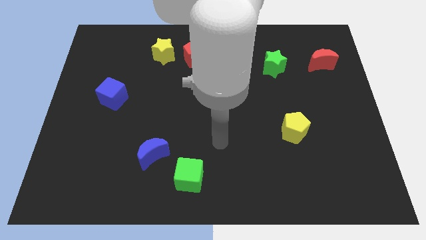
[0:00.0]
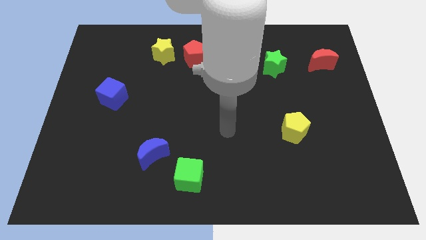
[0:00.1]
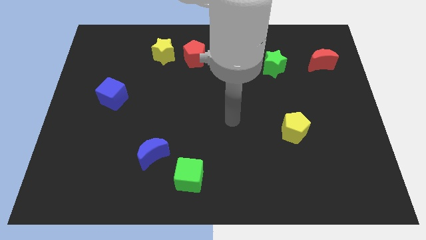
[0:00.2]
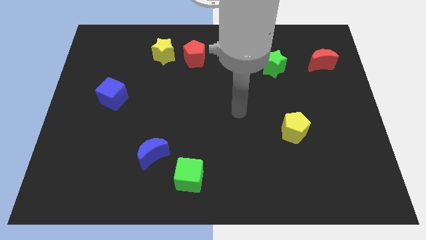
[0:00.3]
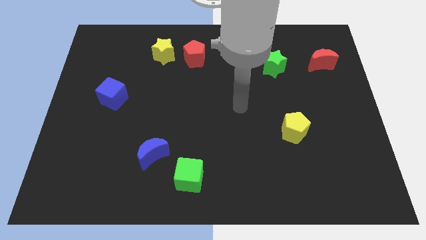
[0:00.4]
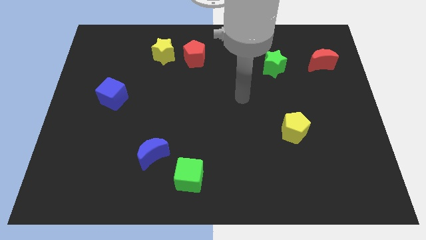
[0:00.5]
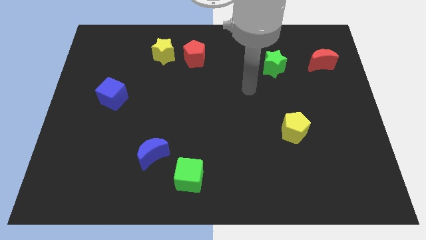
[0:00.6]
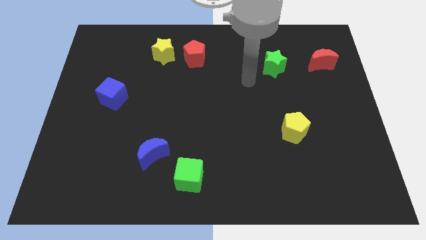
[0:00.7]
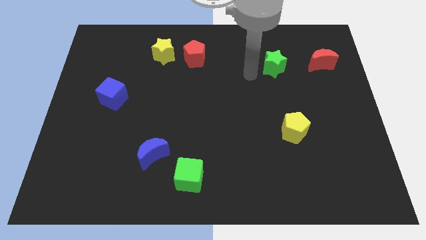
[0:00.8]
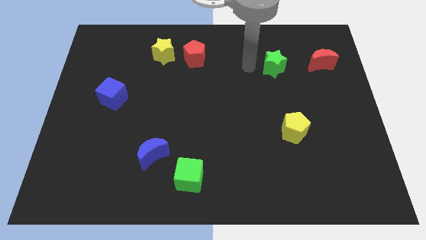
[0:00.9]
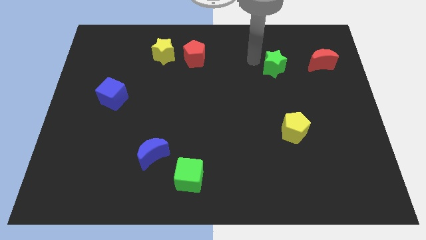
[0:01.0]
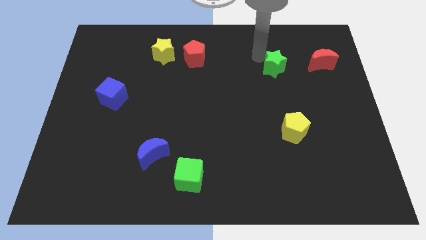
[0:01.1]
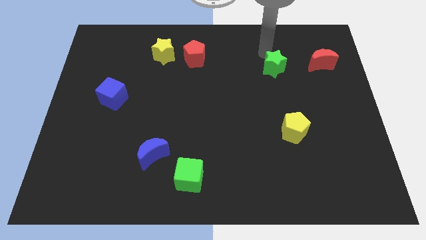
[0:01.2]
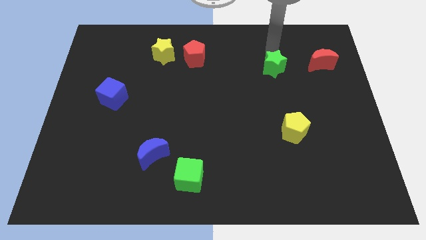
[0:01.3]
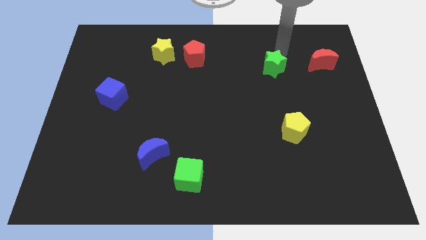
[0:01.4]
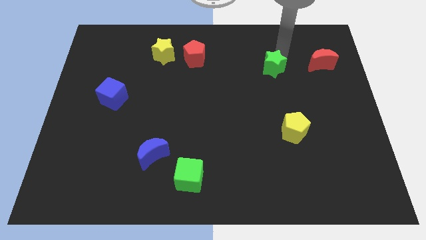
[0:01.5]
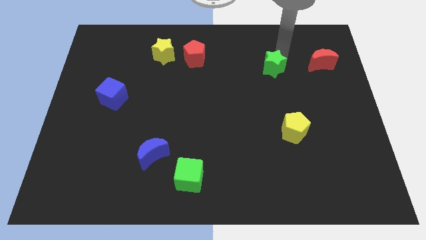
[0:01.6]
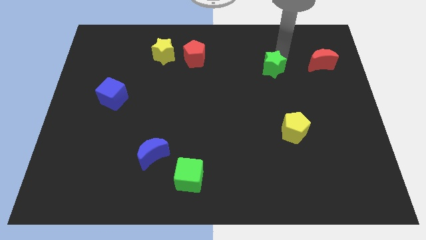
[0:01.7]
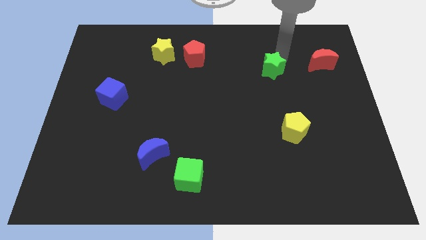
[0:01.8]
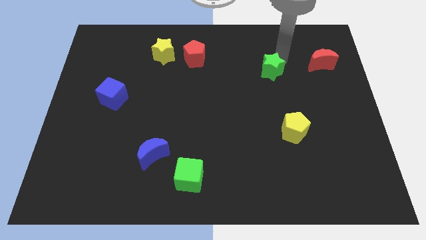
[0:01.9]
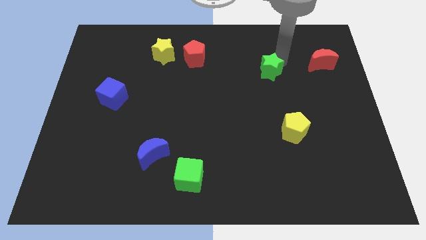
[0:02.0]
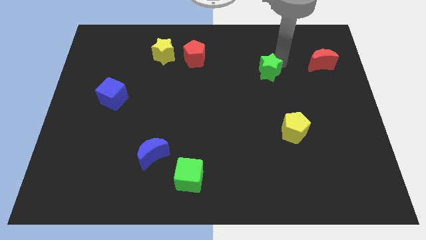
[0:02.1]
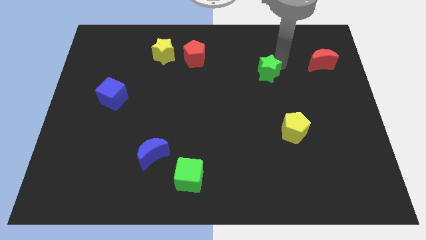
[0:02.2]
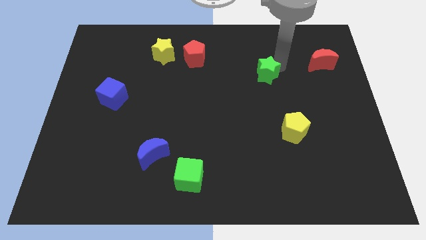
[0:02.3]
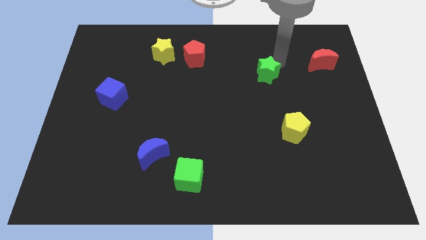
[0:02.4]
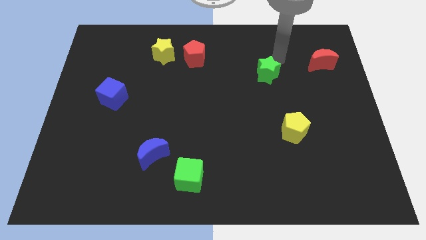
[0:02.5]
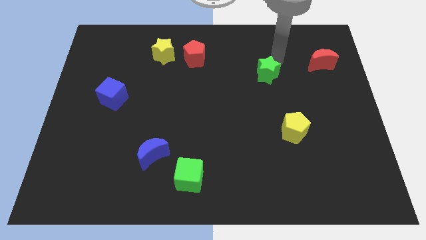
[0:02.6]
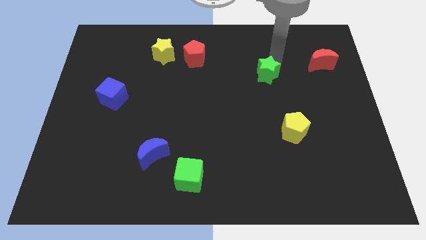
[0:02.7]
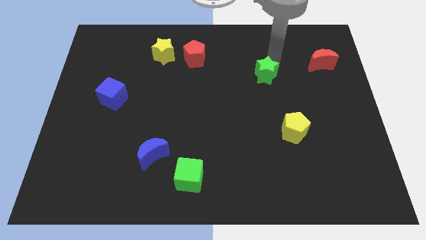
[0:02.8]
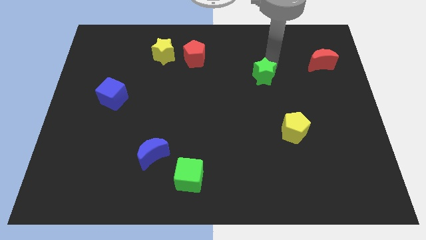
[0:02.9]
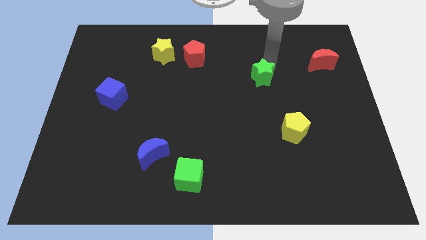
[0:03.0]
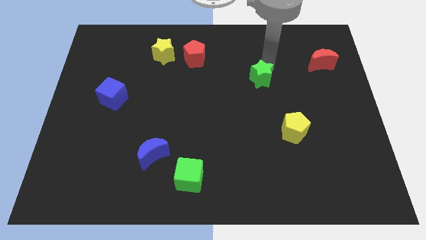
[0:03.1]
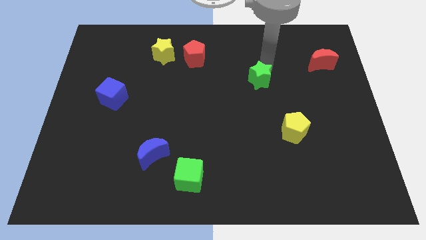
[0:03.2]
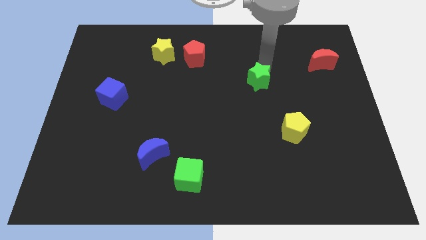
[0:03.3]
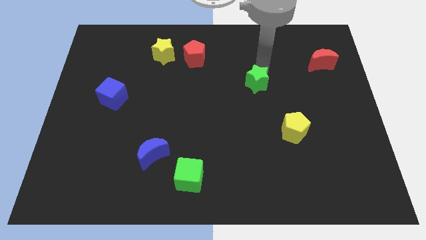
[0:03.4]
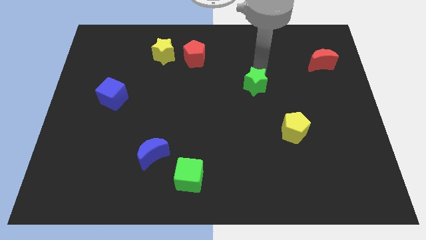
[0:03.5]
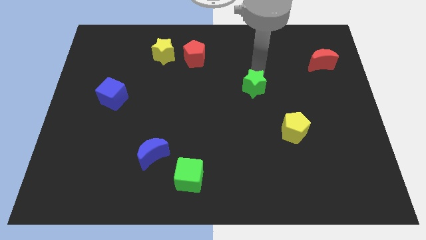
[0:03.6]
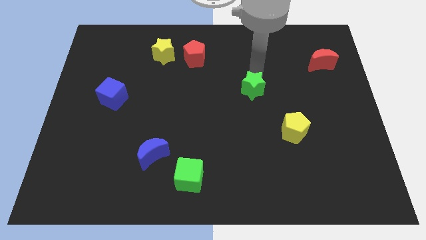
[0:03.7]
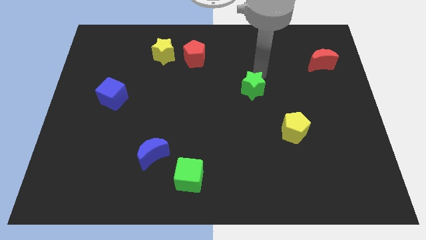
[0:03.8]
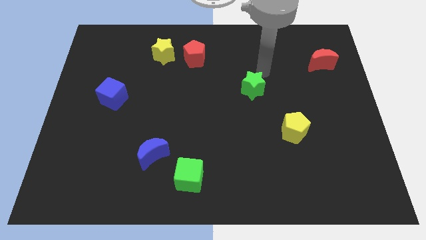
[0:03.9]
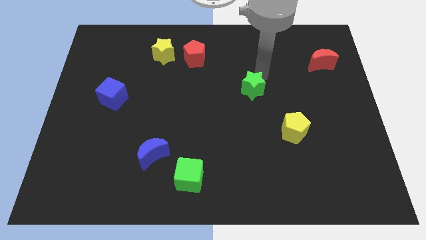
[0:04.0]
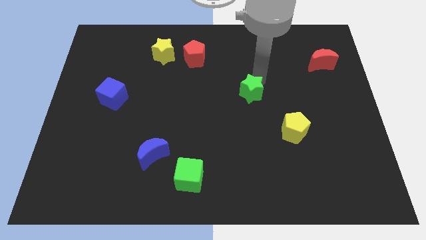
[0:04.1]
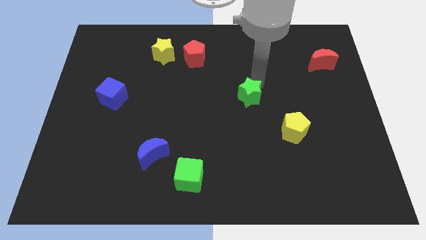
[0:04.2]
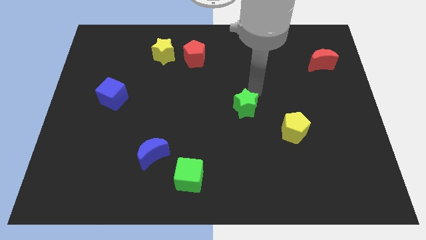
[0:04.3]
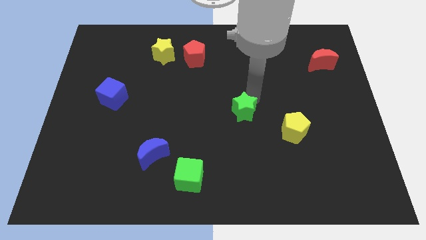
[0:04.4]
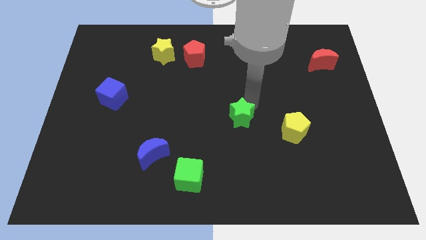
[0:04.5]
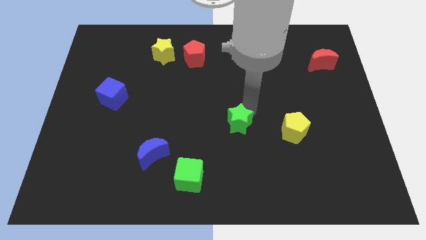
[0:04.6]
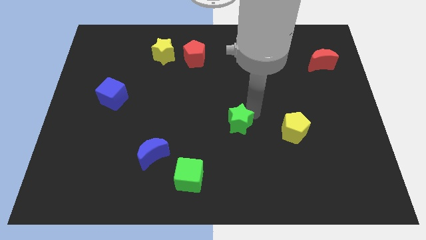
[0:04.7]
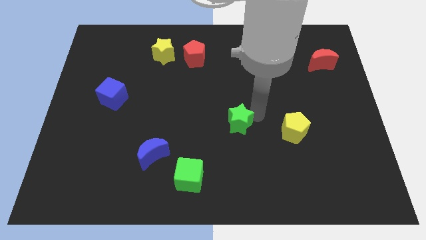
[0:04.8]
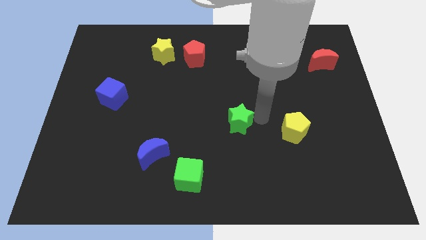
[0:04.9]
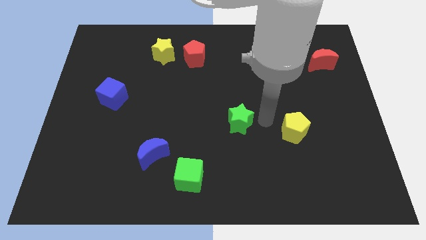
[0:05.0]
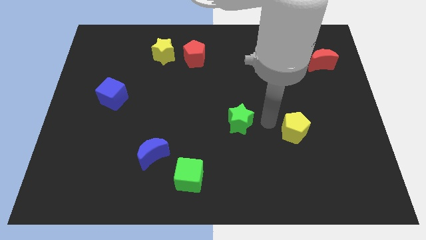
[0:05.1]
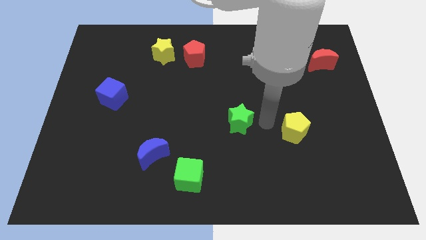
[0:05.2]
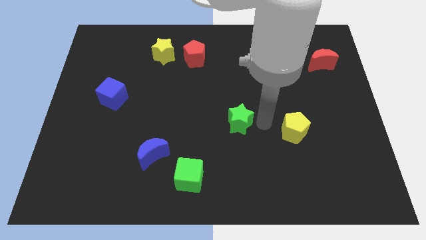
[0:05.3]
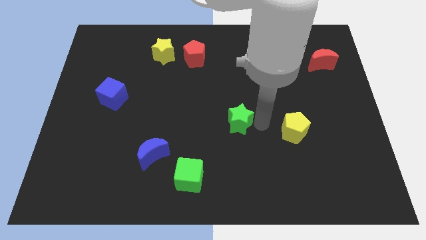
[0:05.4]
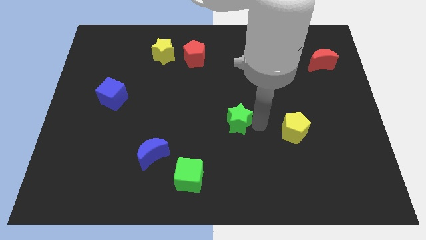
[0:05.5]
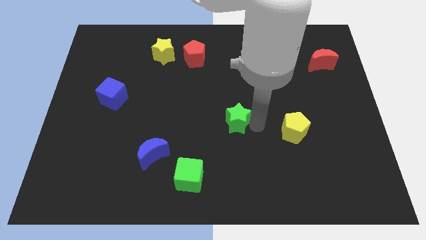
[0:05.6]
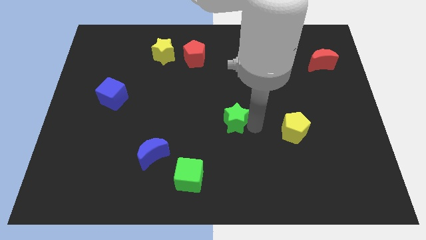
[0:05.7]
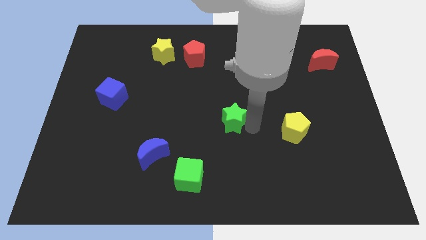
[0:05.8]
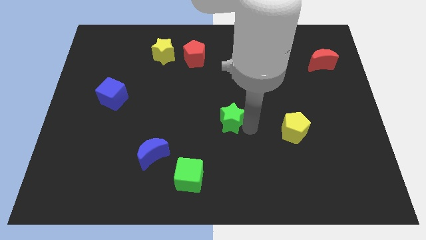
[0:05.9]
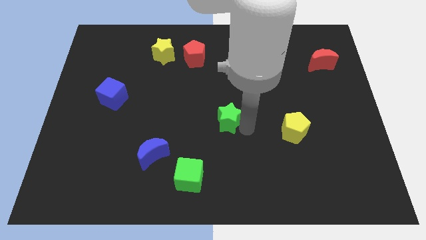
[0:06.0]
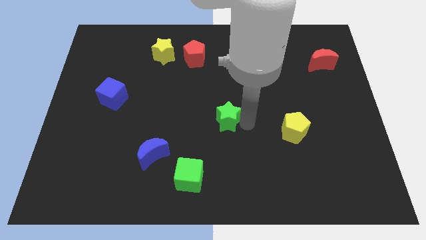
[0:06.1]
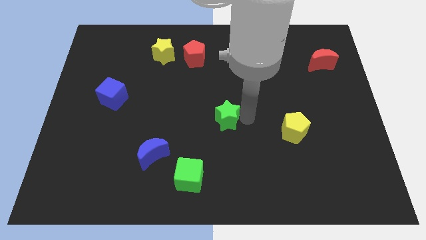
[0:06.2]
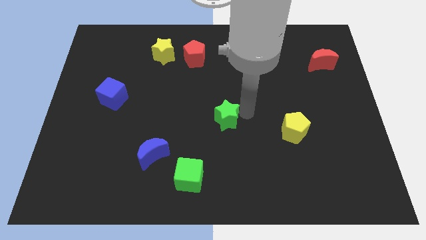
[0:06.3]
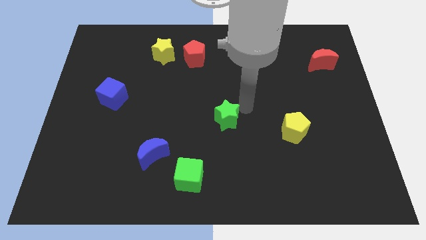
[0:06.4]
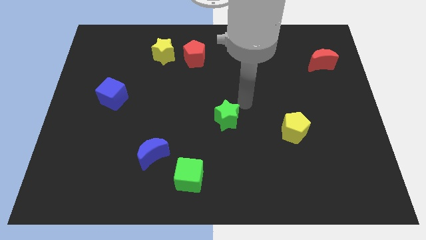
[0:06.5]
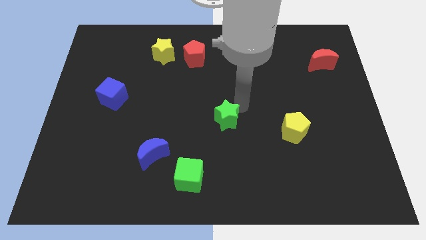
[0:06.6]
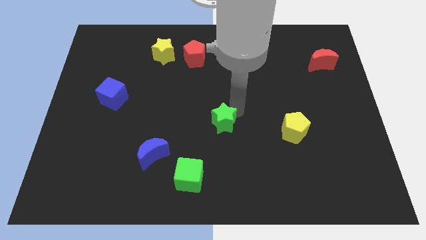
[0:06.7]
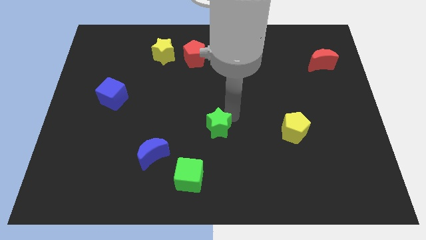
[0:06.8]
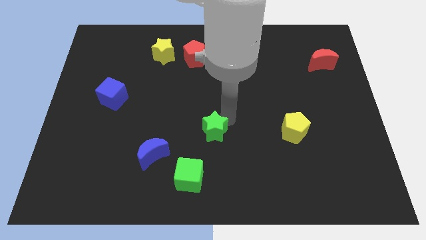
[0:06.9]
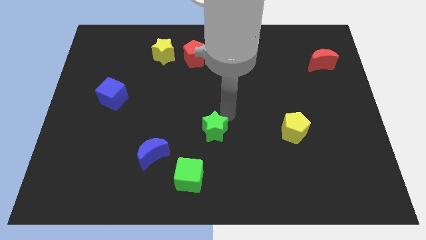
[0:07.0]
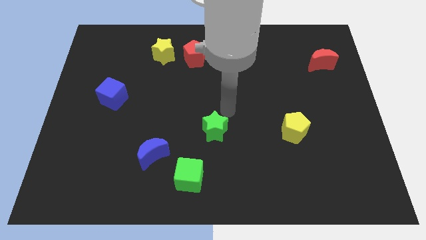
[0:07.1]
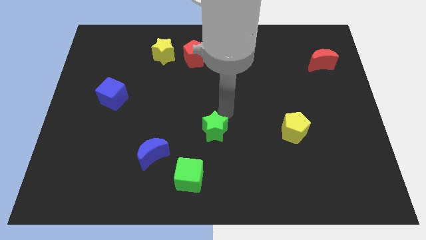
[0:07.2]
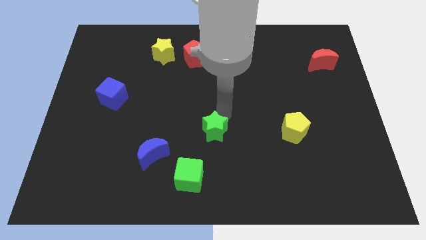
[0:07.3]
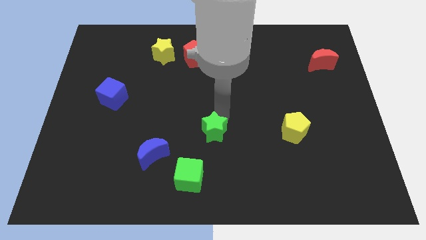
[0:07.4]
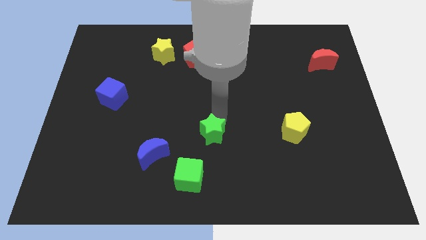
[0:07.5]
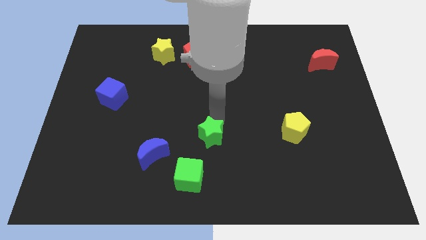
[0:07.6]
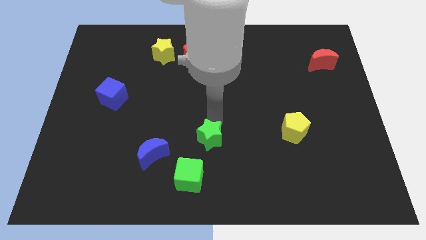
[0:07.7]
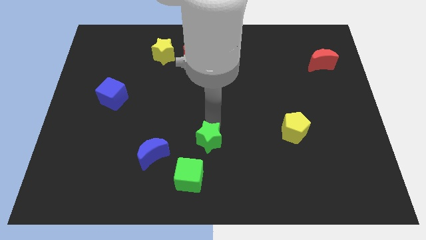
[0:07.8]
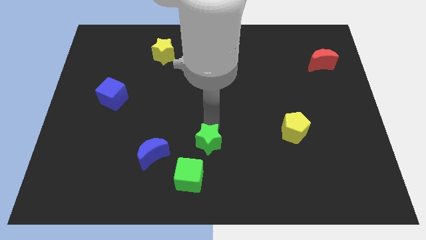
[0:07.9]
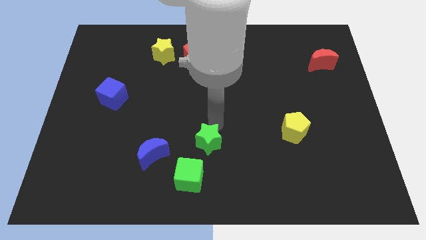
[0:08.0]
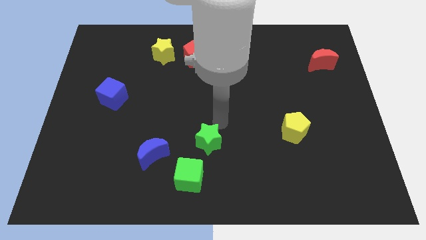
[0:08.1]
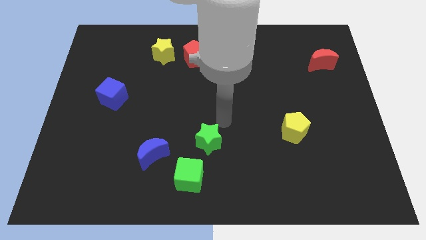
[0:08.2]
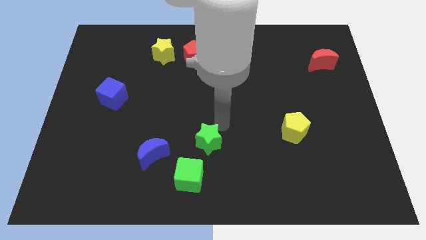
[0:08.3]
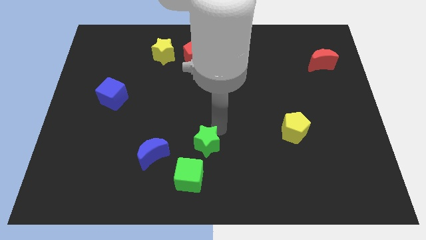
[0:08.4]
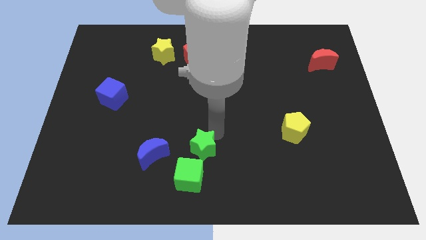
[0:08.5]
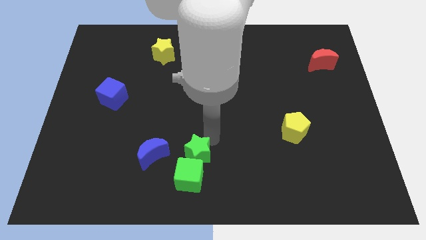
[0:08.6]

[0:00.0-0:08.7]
put the green star towards the green cube
